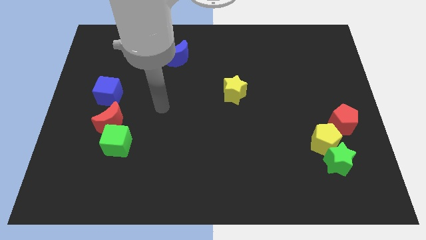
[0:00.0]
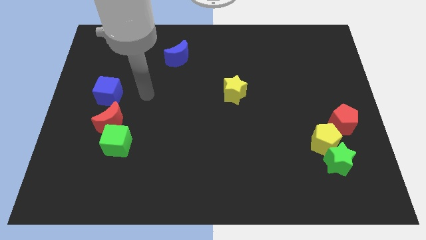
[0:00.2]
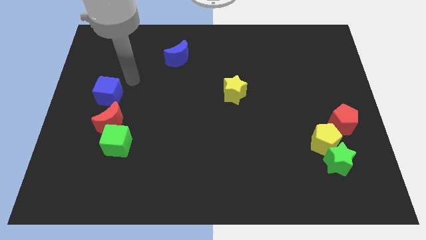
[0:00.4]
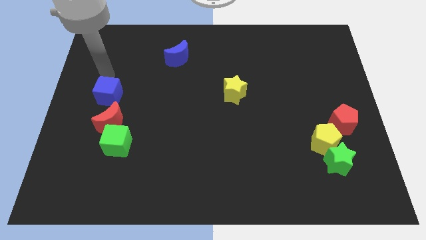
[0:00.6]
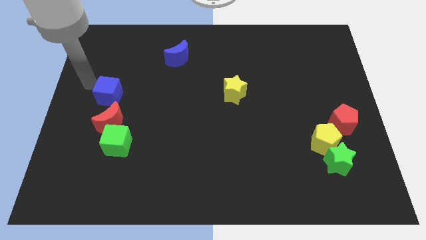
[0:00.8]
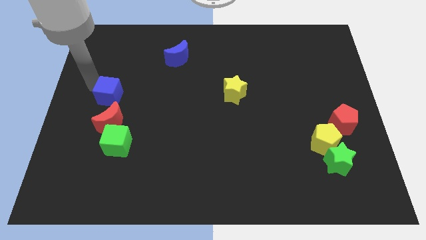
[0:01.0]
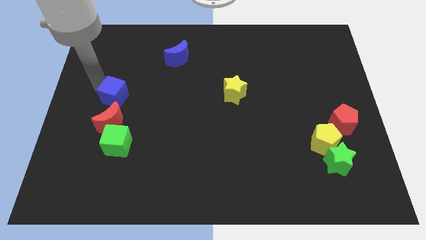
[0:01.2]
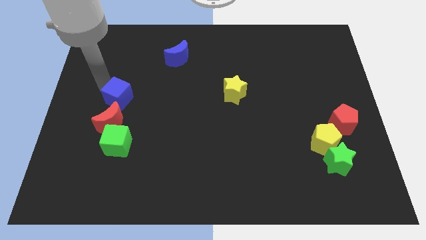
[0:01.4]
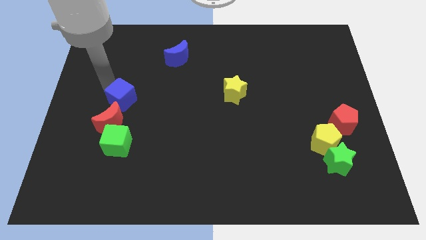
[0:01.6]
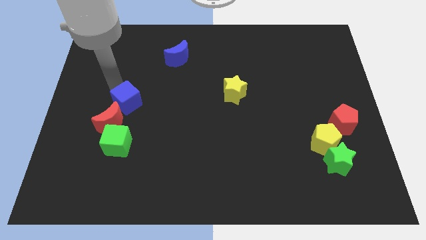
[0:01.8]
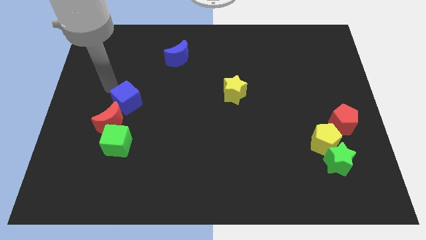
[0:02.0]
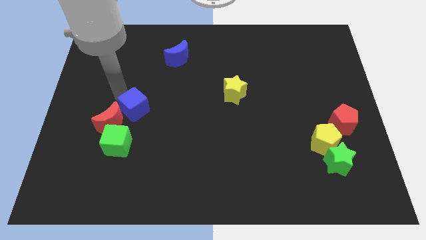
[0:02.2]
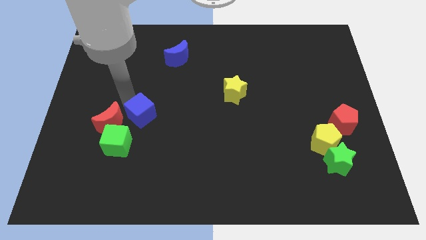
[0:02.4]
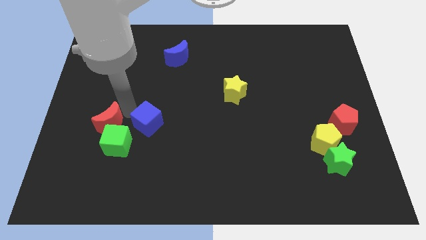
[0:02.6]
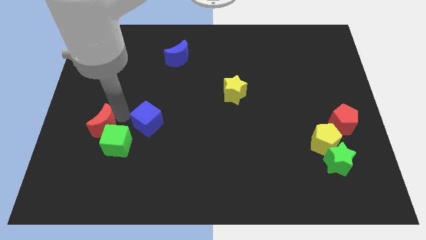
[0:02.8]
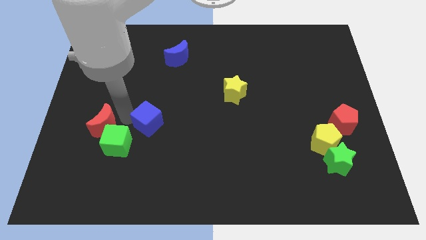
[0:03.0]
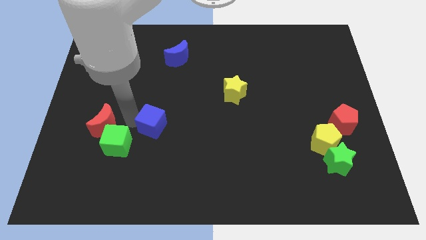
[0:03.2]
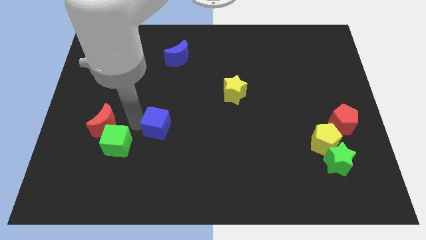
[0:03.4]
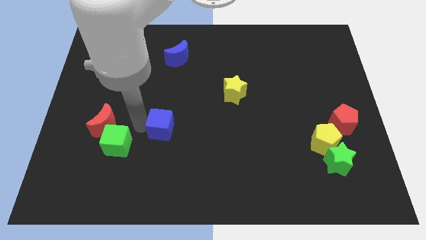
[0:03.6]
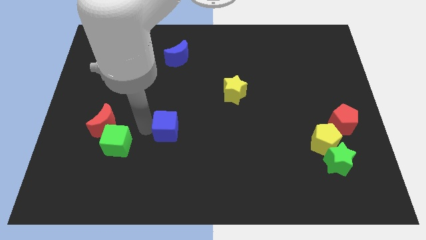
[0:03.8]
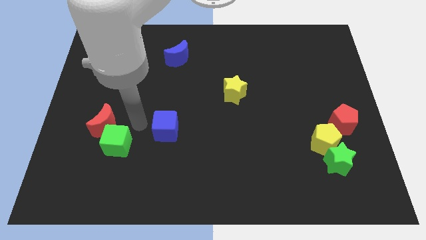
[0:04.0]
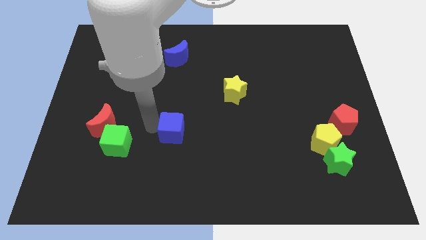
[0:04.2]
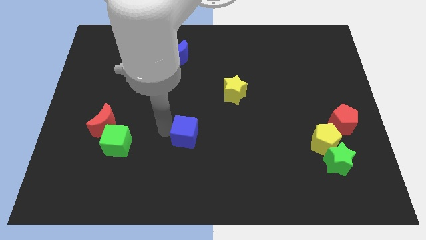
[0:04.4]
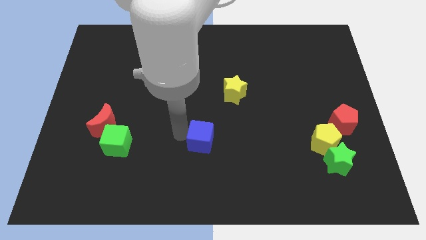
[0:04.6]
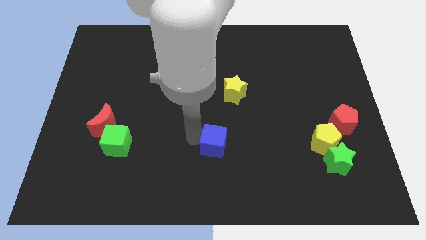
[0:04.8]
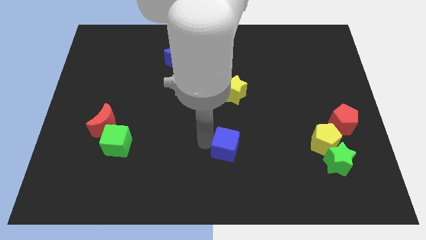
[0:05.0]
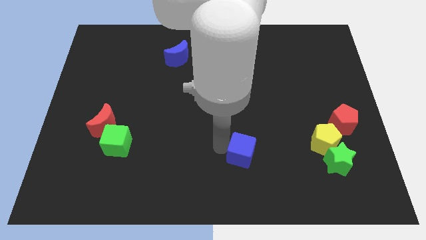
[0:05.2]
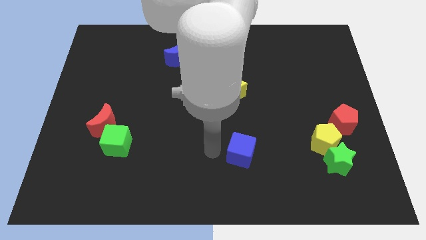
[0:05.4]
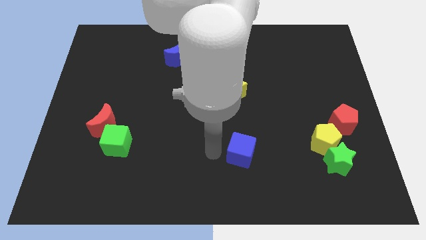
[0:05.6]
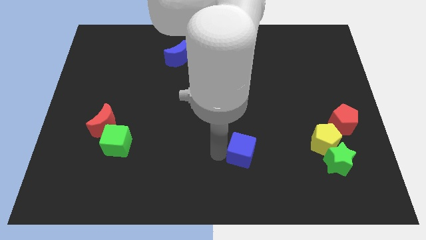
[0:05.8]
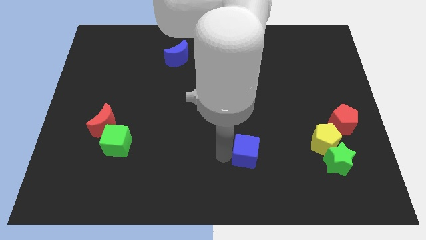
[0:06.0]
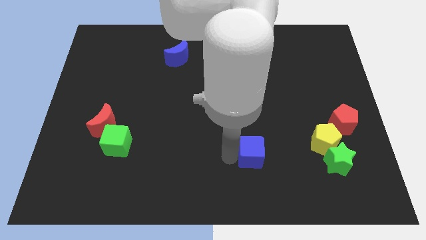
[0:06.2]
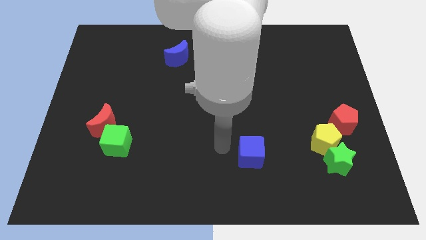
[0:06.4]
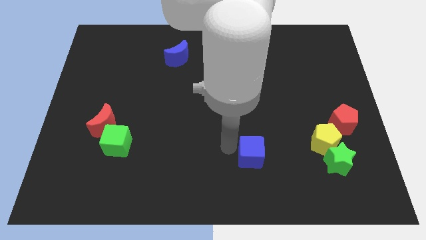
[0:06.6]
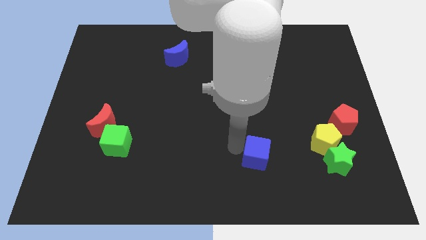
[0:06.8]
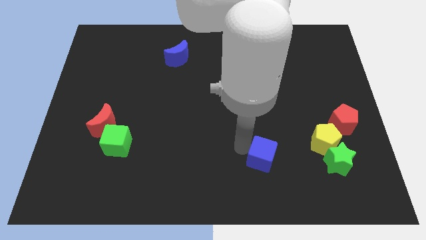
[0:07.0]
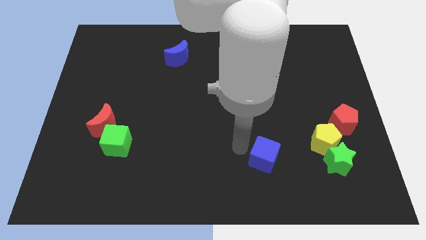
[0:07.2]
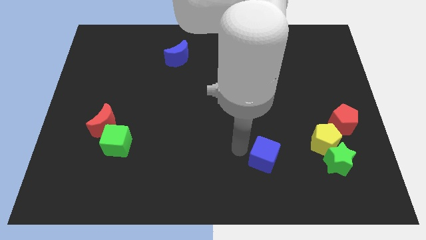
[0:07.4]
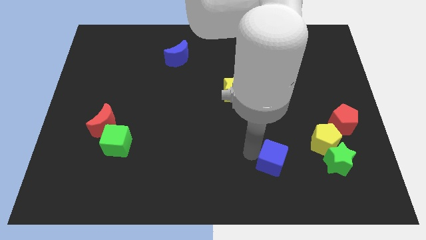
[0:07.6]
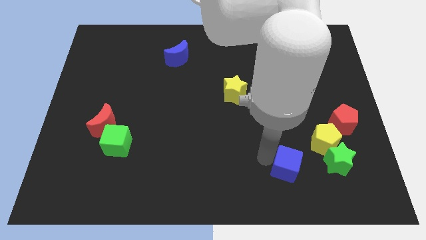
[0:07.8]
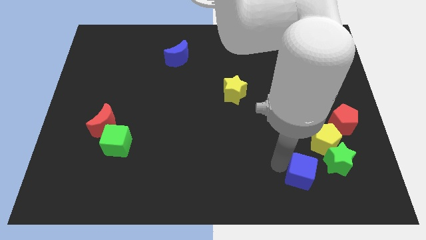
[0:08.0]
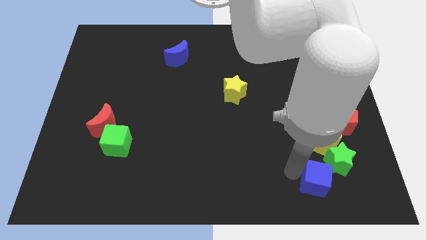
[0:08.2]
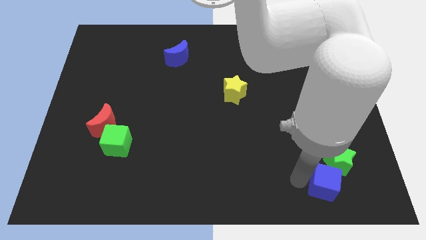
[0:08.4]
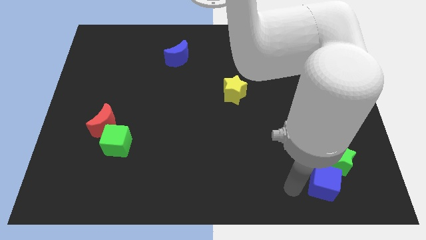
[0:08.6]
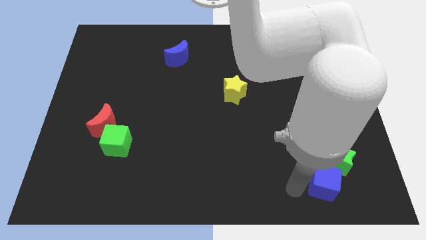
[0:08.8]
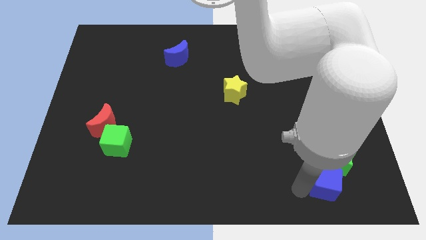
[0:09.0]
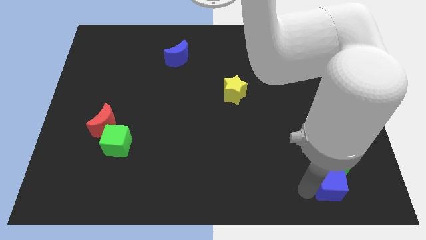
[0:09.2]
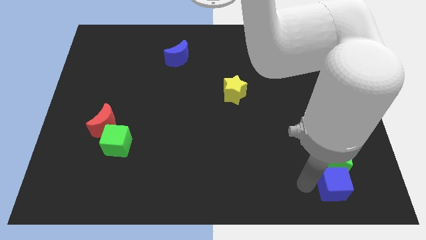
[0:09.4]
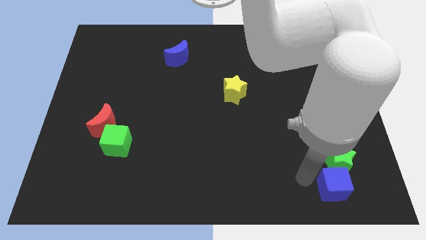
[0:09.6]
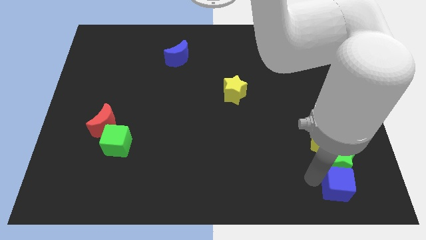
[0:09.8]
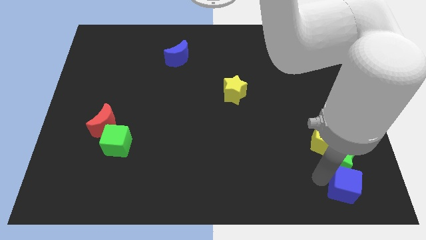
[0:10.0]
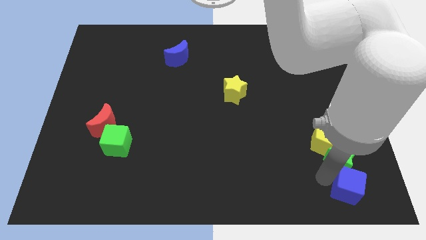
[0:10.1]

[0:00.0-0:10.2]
put the blue cube to the bottom right corner

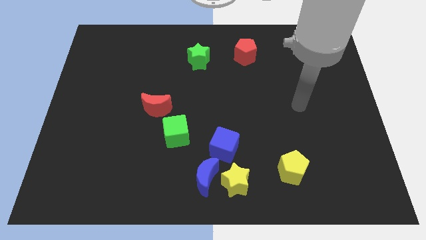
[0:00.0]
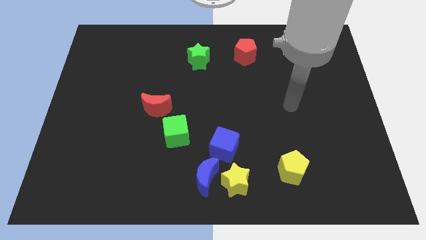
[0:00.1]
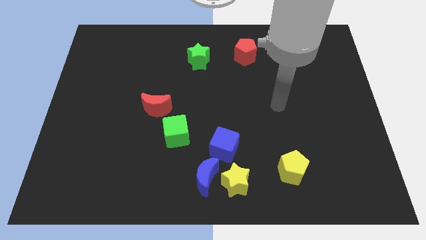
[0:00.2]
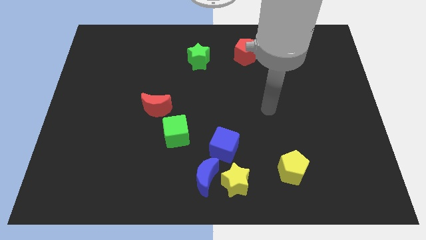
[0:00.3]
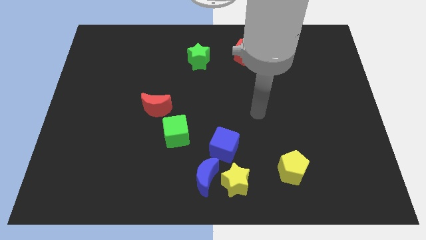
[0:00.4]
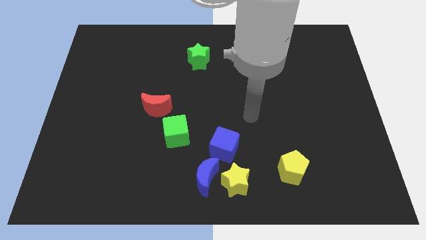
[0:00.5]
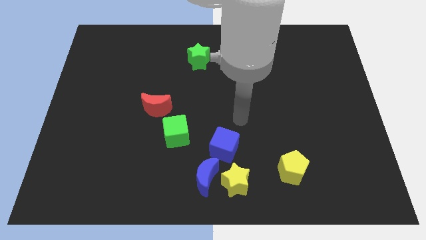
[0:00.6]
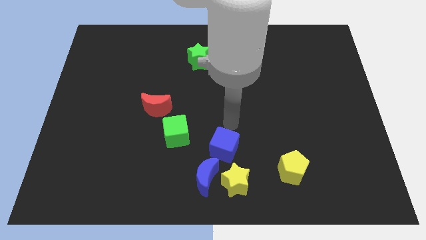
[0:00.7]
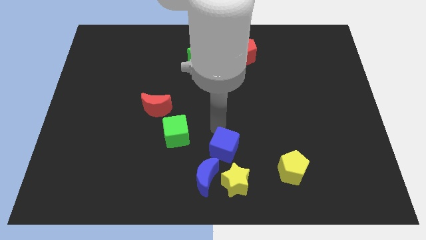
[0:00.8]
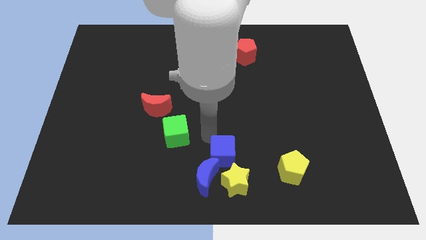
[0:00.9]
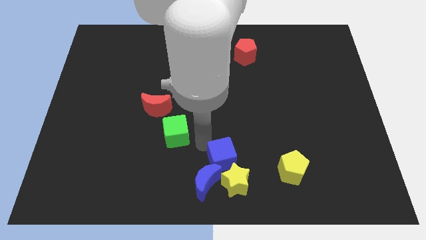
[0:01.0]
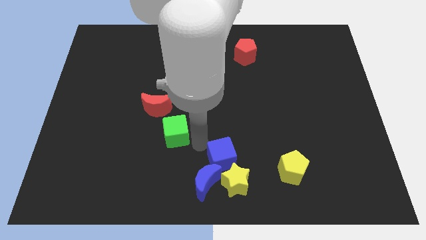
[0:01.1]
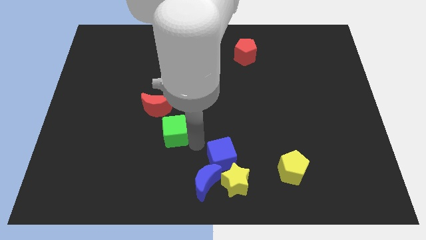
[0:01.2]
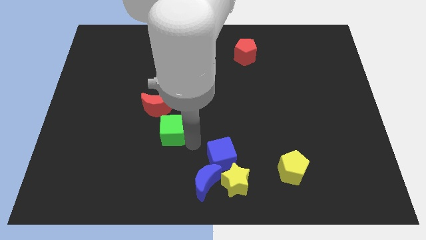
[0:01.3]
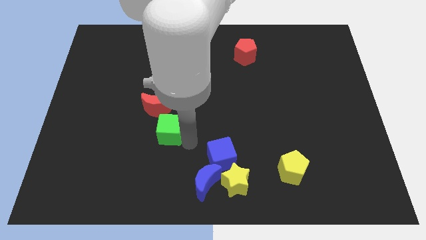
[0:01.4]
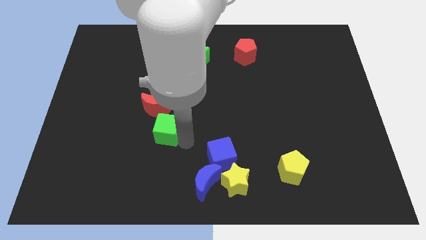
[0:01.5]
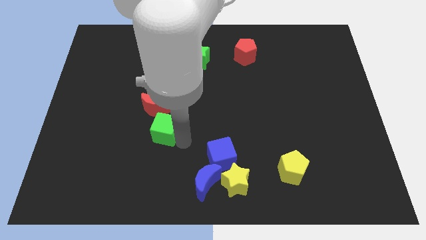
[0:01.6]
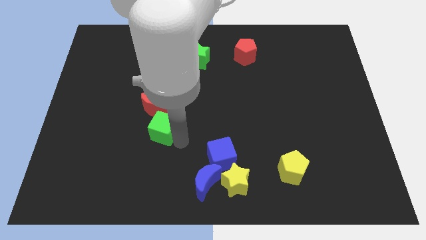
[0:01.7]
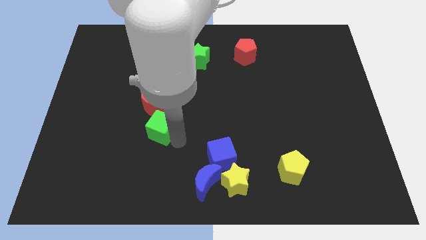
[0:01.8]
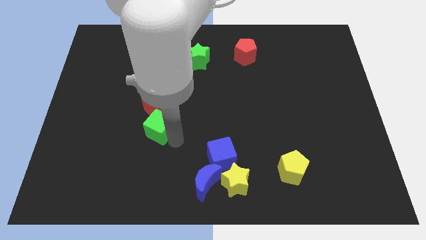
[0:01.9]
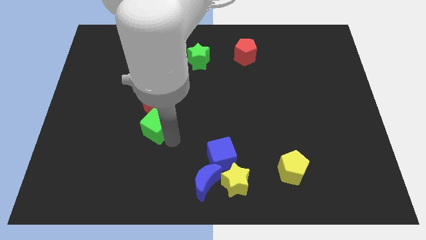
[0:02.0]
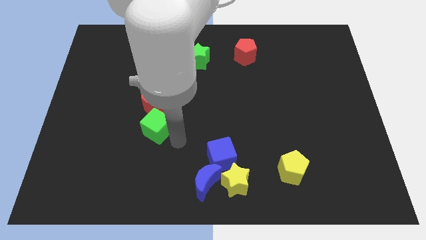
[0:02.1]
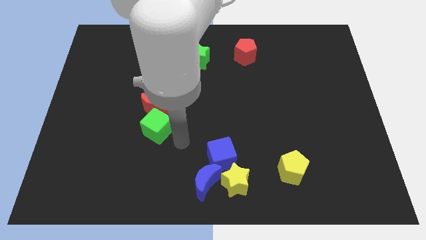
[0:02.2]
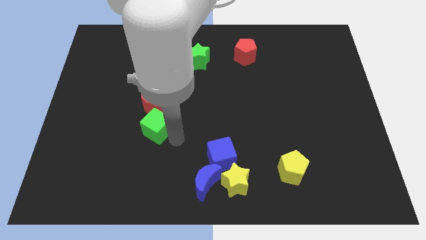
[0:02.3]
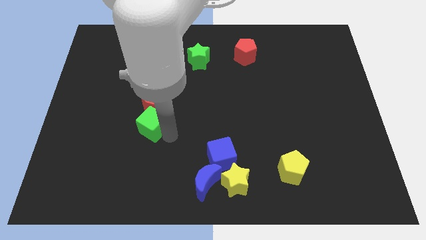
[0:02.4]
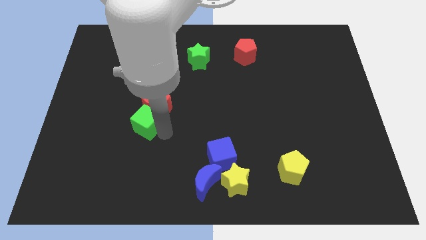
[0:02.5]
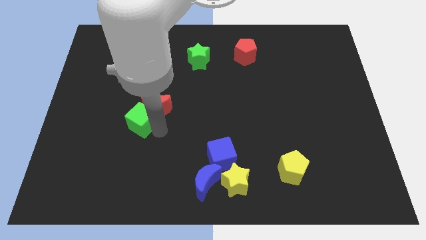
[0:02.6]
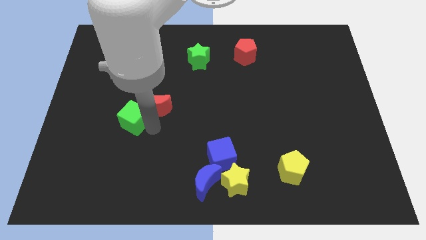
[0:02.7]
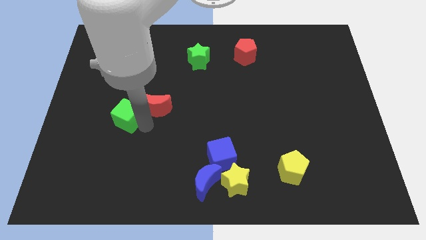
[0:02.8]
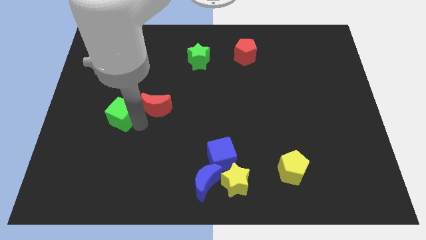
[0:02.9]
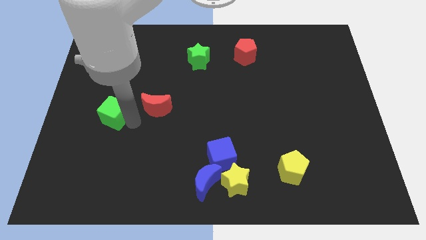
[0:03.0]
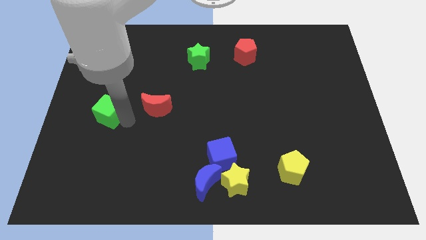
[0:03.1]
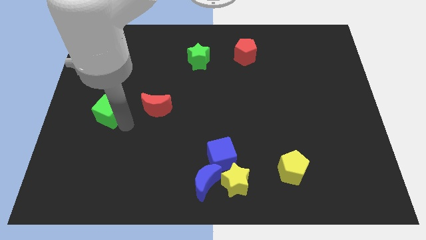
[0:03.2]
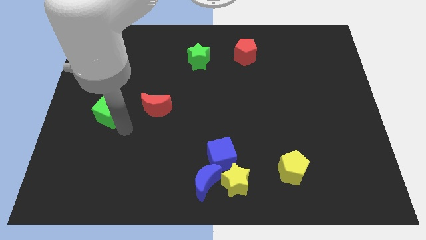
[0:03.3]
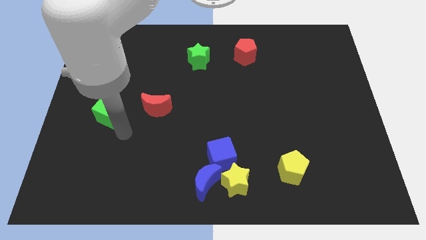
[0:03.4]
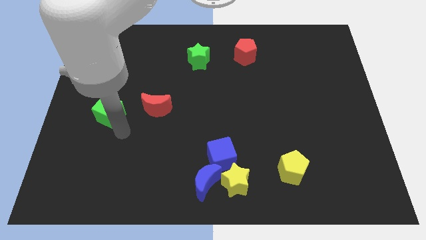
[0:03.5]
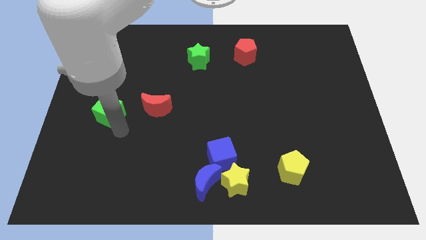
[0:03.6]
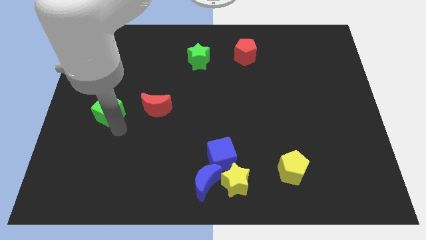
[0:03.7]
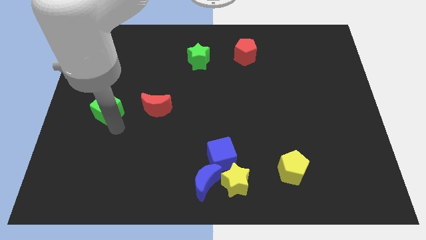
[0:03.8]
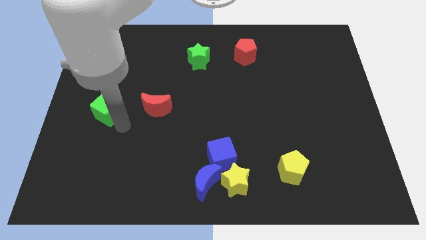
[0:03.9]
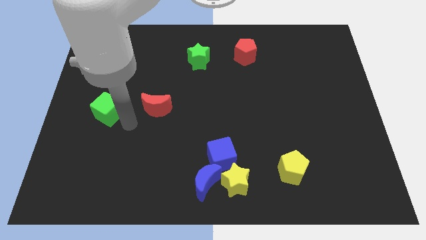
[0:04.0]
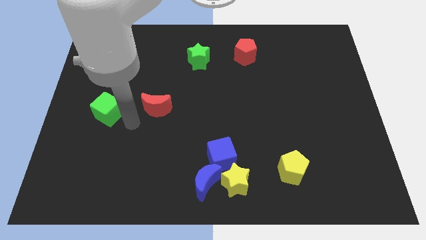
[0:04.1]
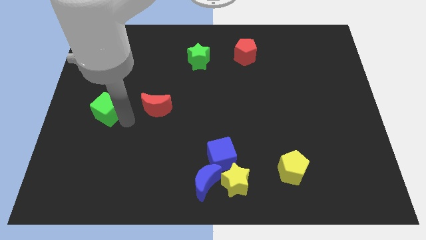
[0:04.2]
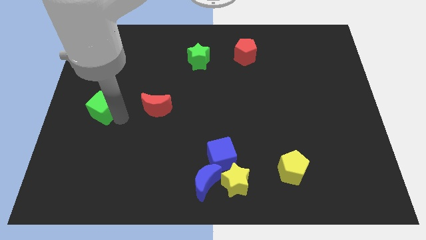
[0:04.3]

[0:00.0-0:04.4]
put the green cube to the center left
